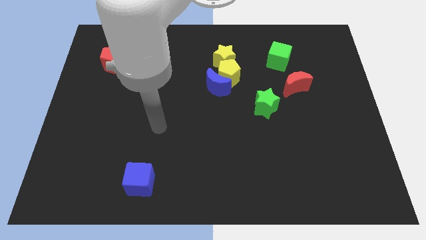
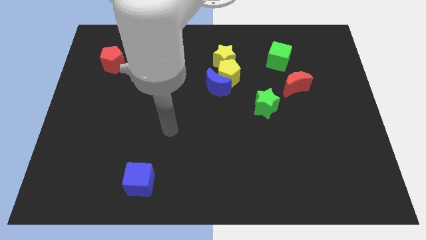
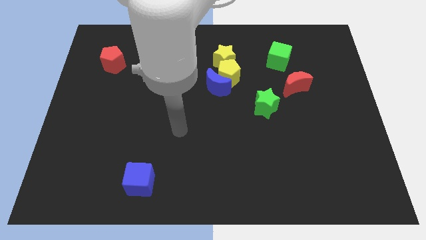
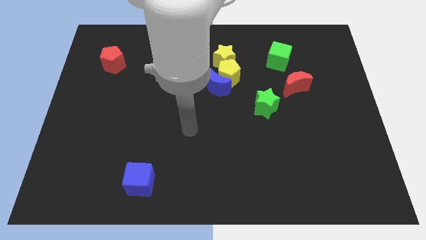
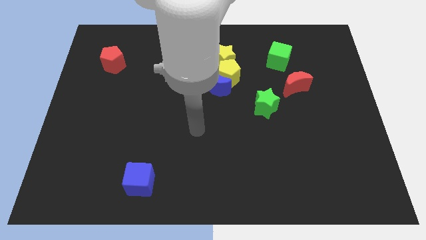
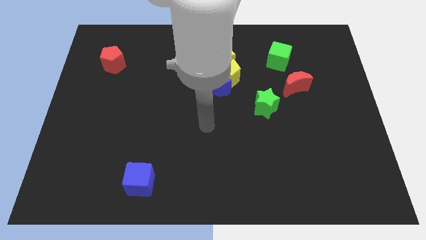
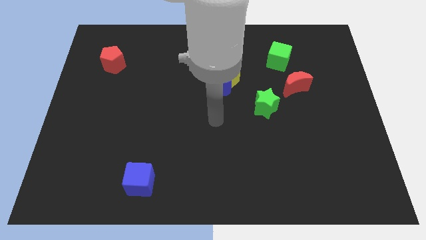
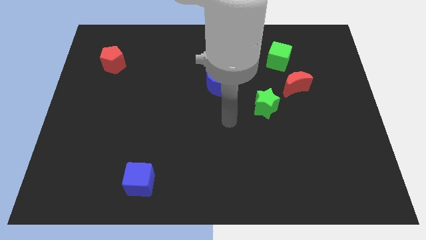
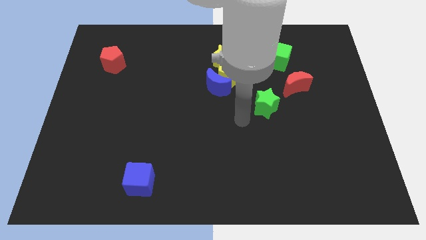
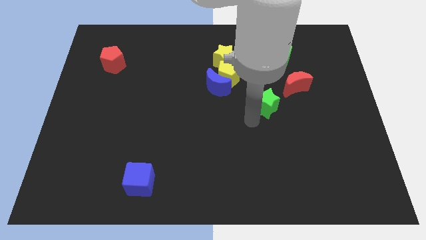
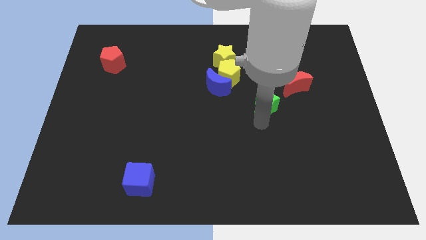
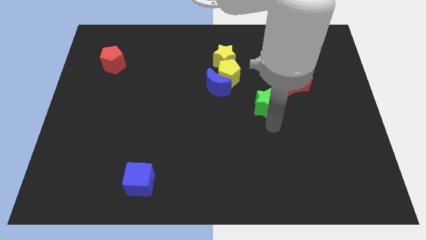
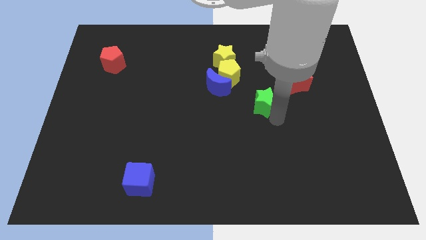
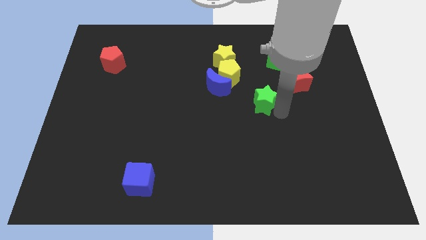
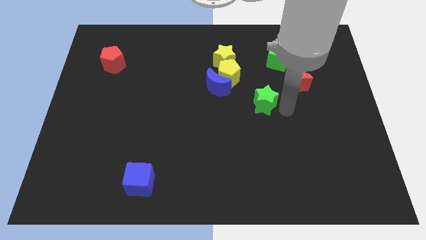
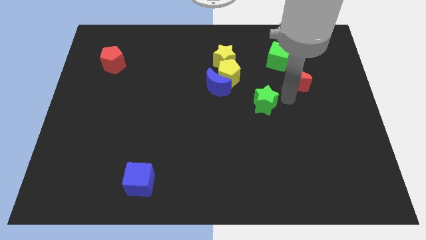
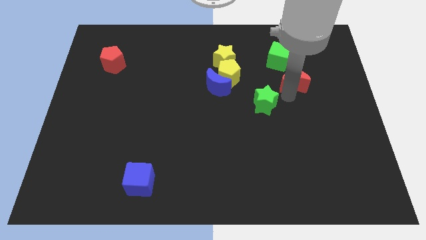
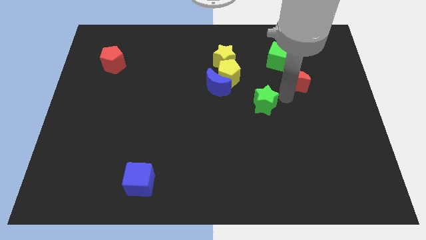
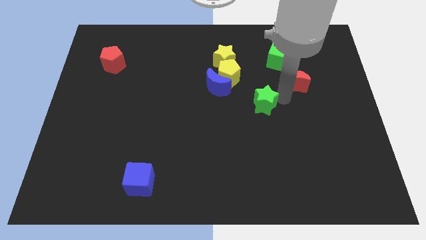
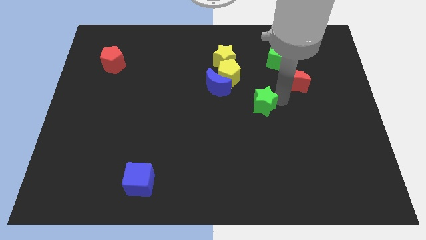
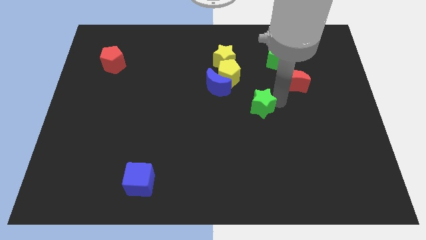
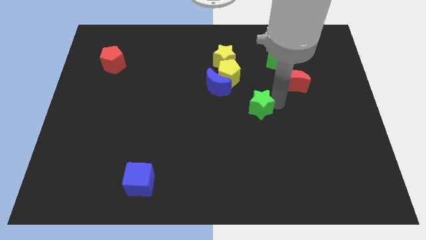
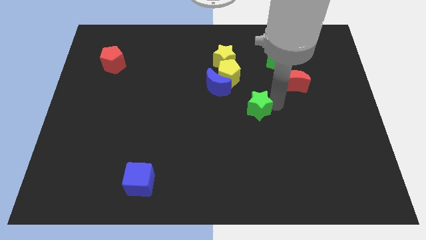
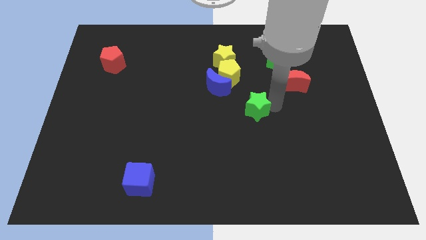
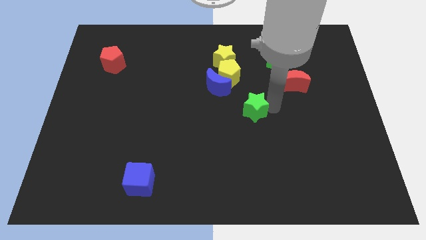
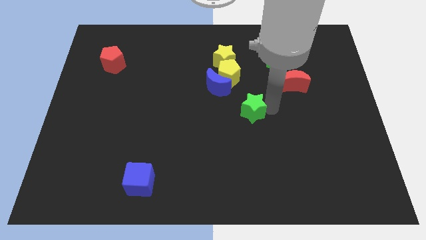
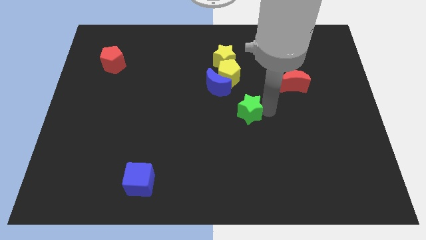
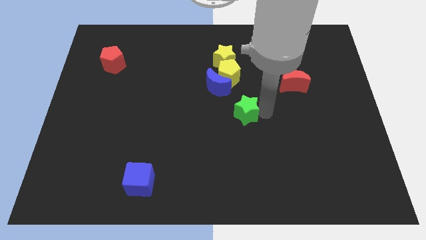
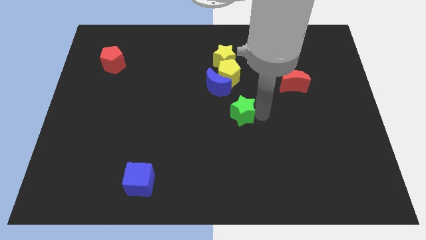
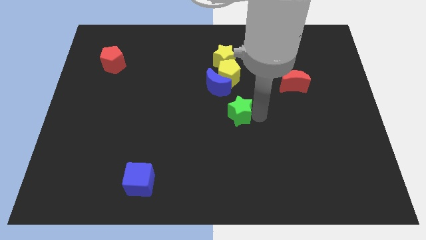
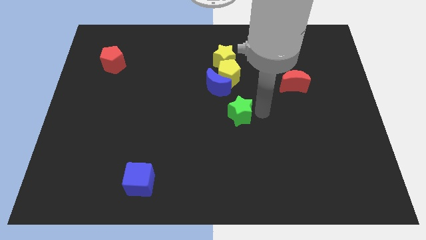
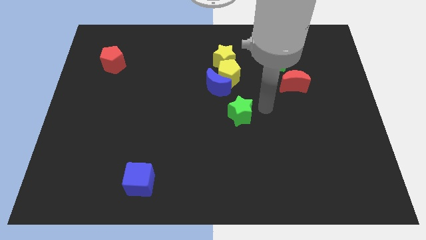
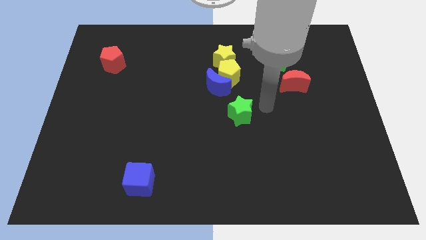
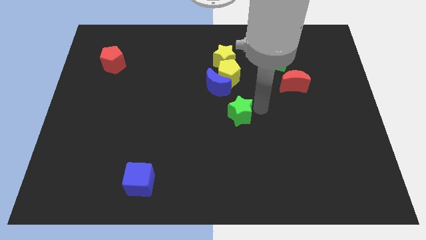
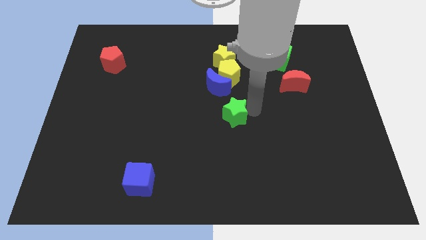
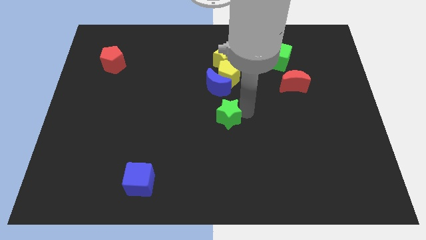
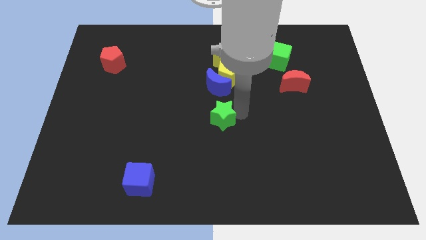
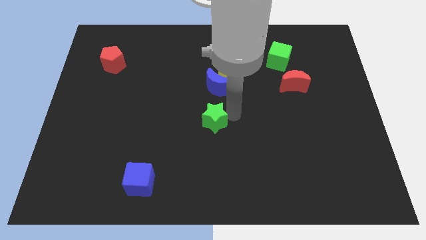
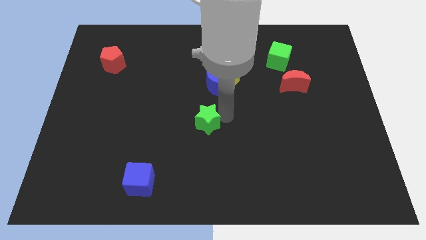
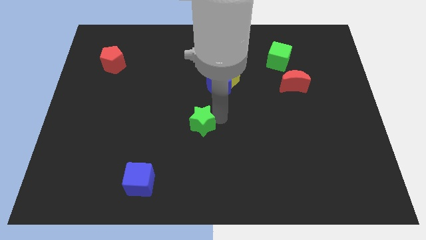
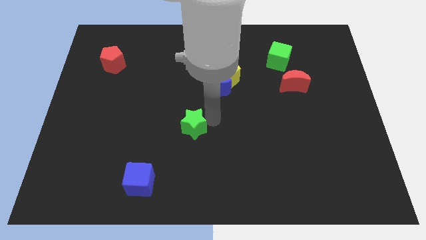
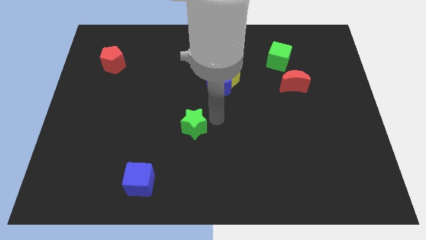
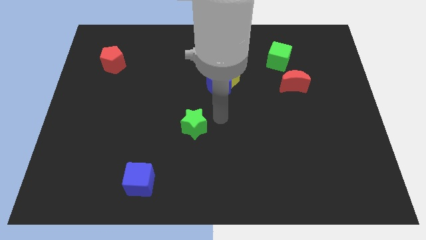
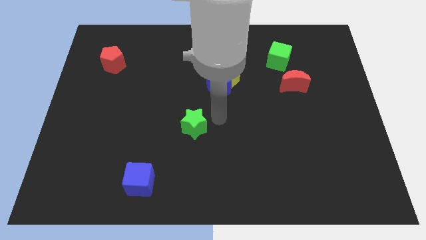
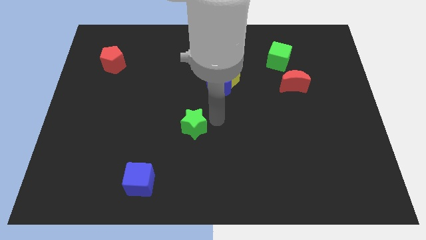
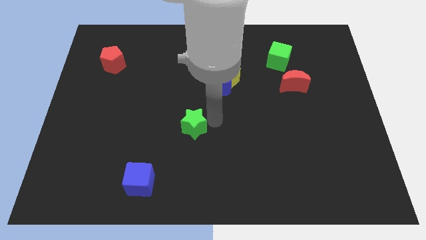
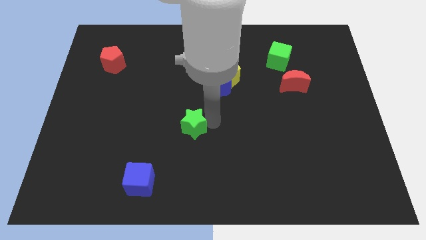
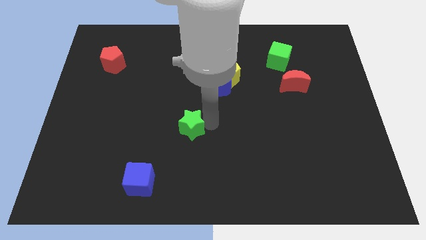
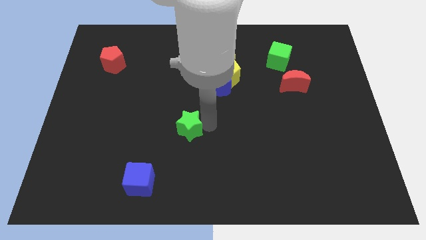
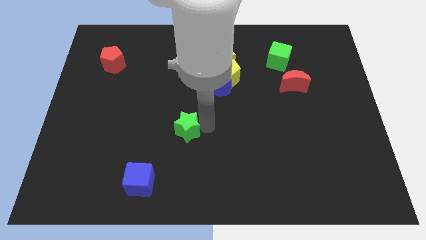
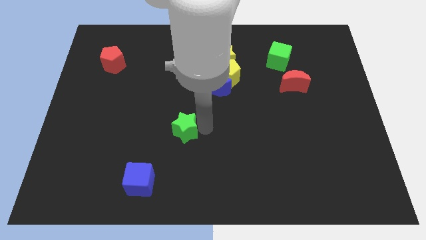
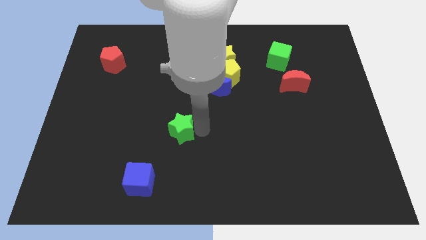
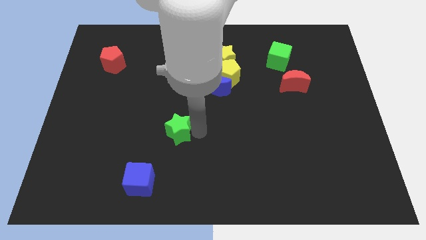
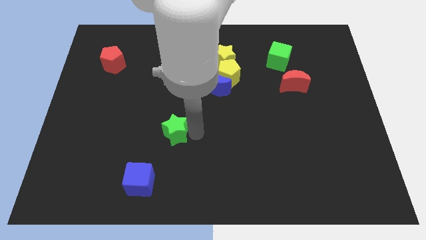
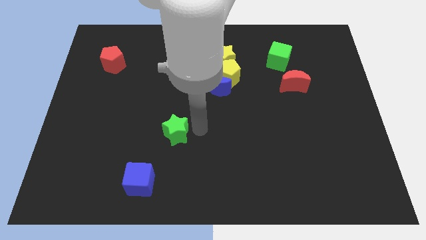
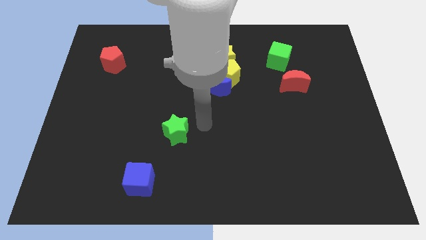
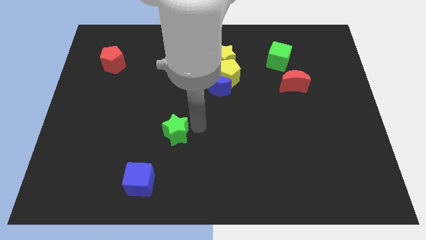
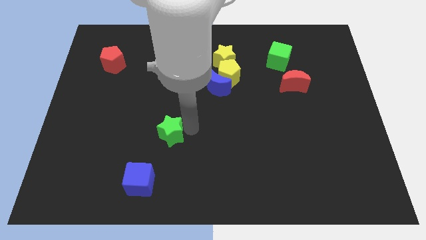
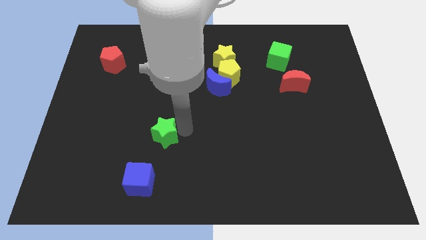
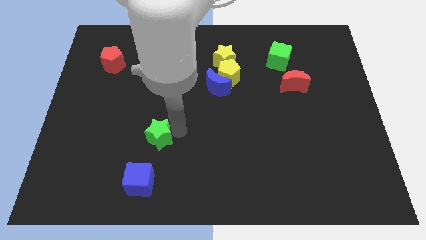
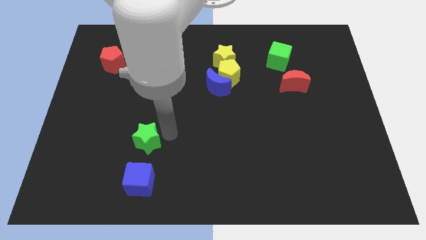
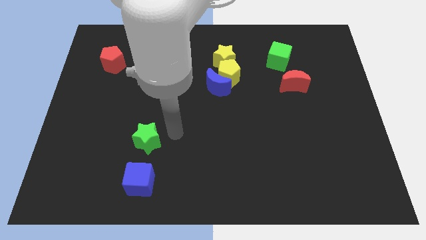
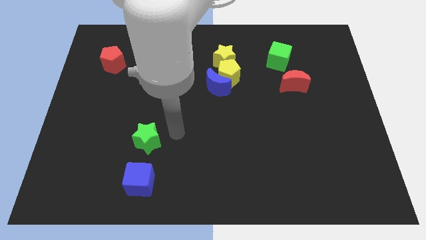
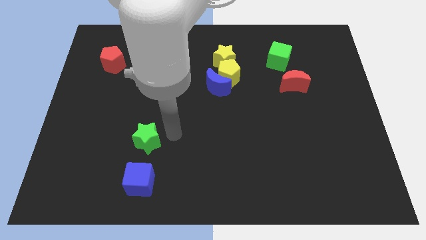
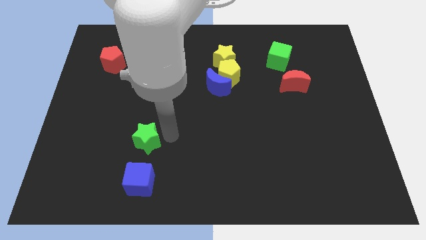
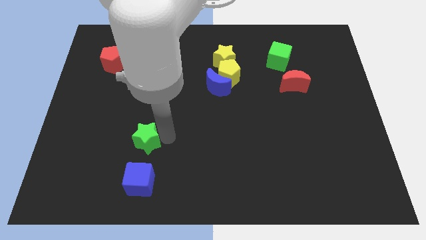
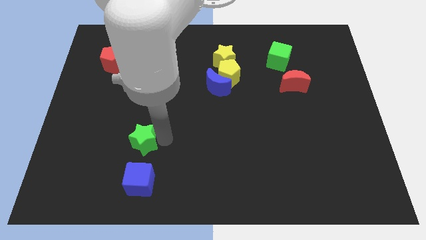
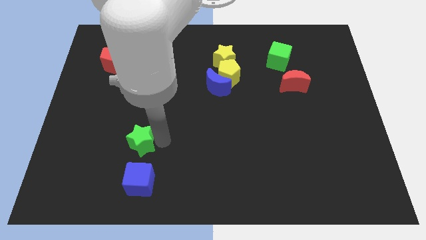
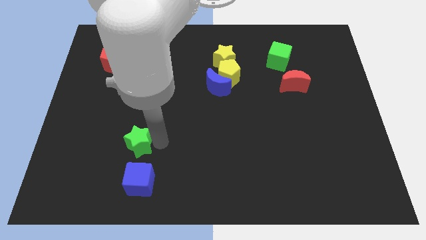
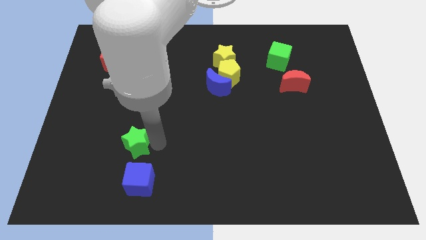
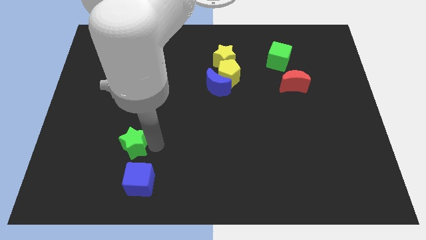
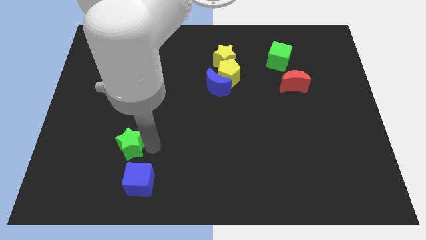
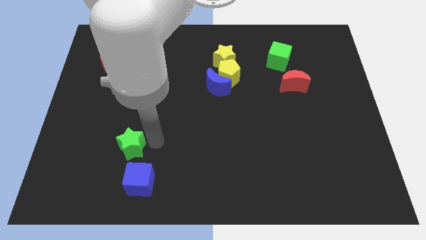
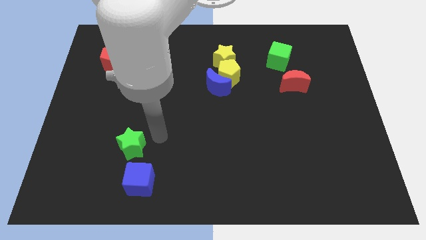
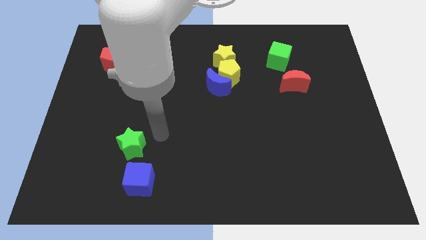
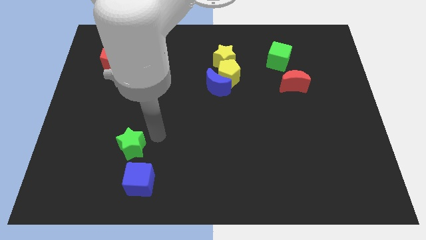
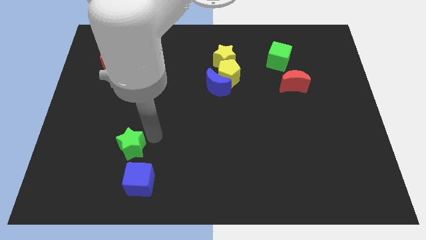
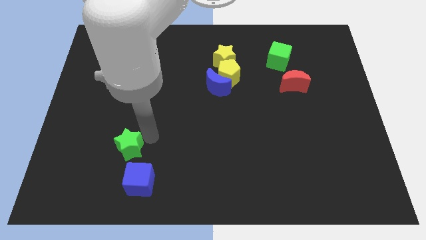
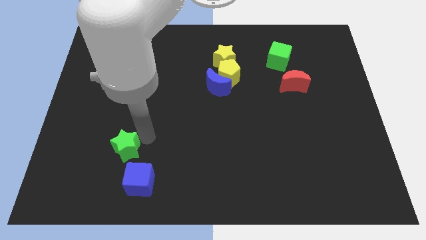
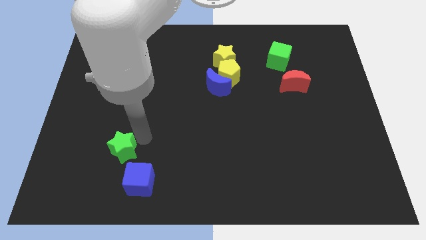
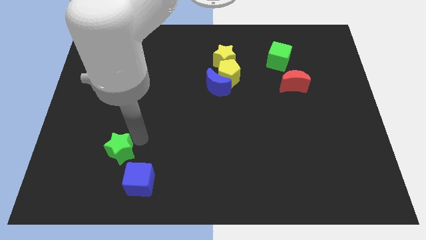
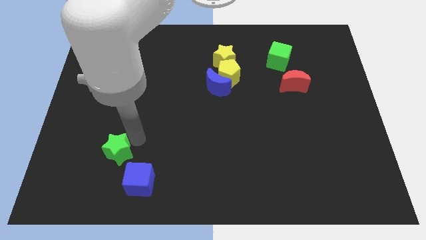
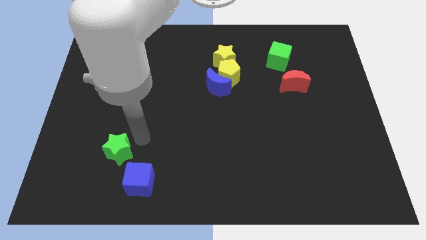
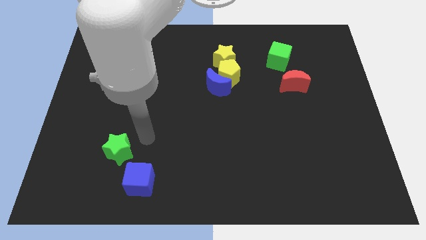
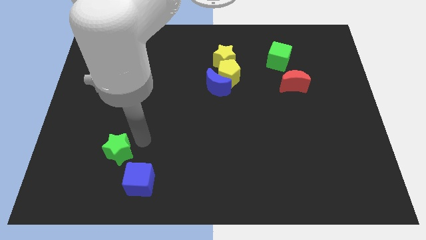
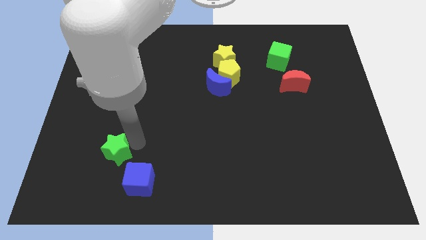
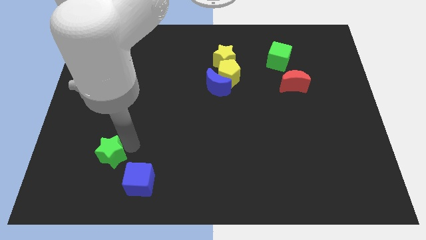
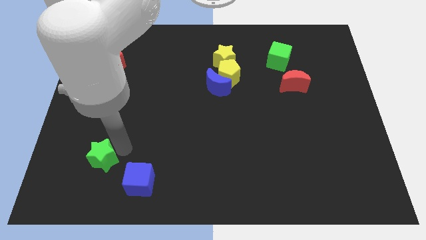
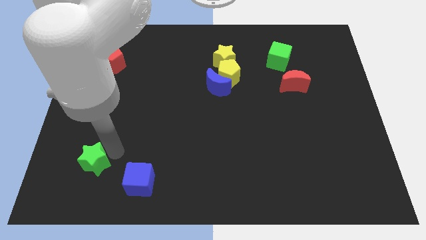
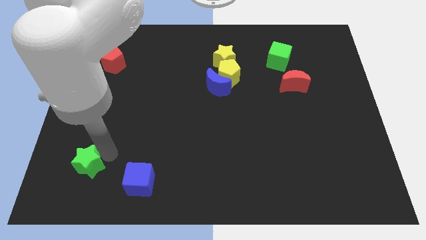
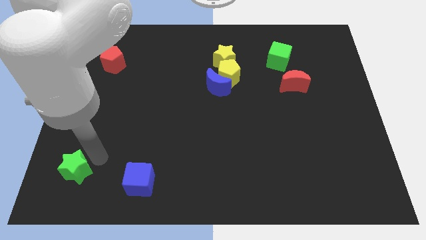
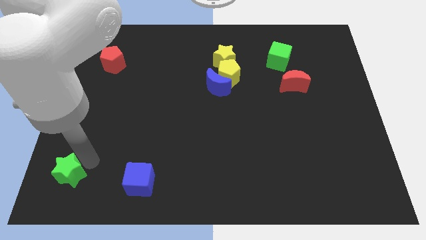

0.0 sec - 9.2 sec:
put the green star to the bottom left
